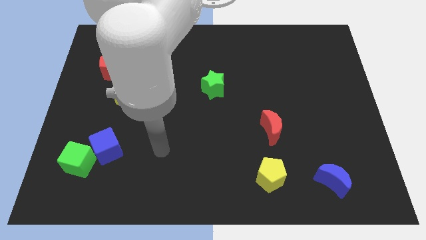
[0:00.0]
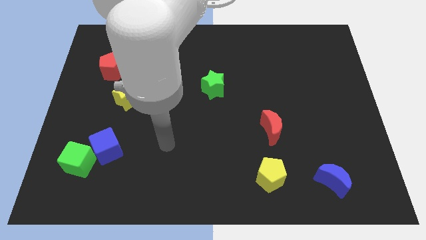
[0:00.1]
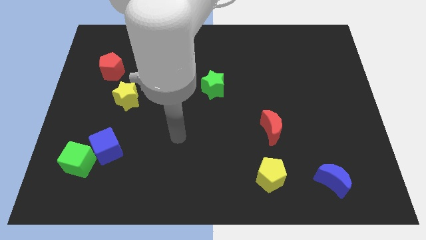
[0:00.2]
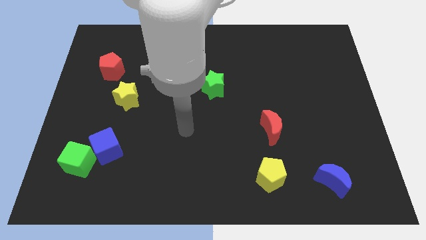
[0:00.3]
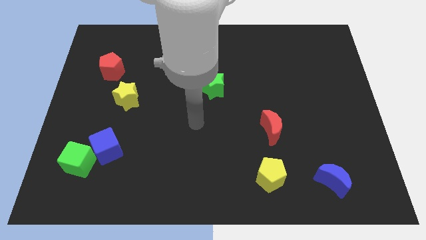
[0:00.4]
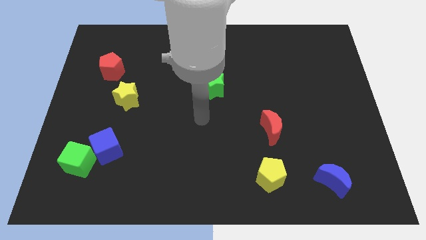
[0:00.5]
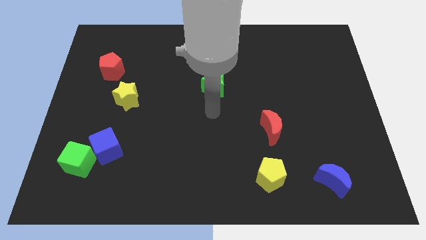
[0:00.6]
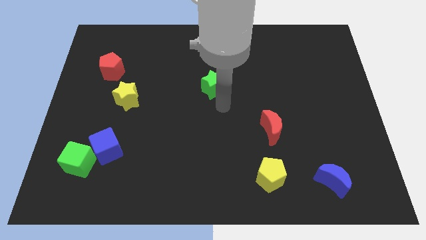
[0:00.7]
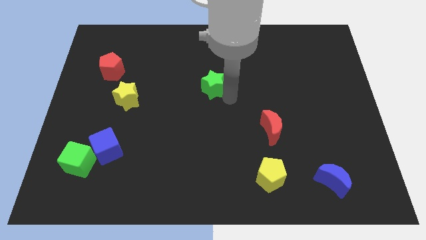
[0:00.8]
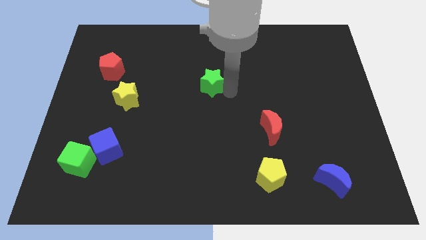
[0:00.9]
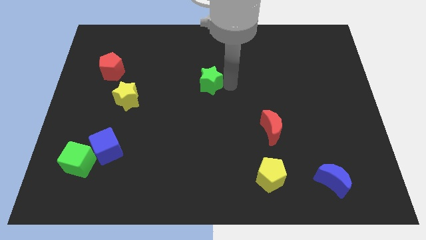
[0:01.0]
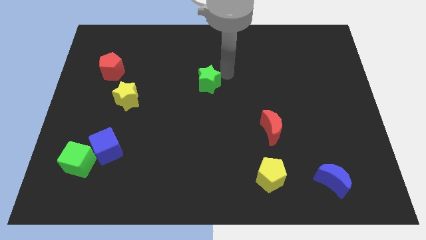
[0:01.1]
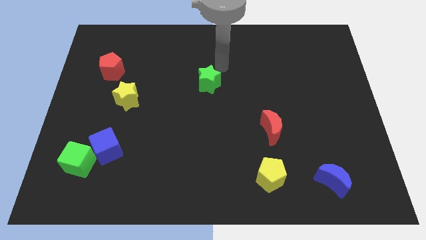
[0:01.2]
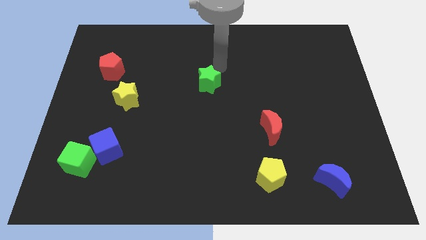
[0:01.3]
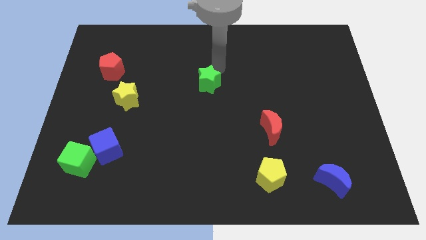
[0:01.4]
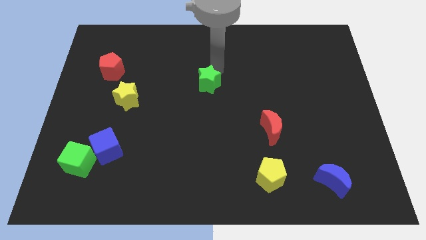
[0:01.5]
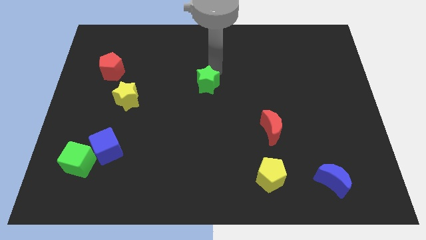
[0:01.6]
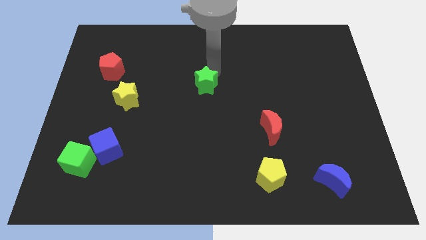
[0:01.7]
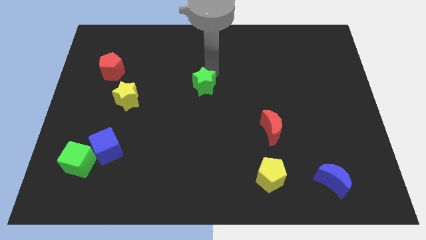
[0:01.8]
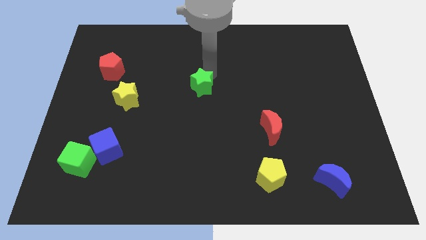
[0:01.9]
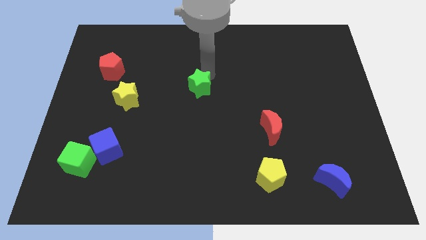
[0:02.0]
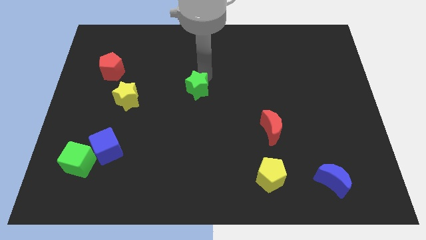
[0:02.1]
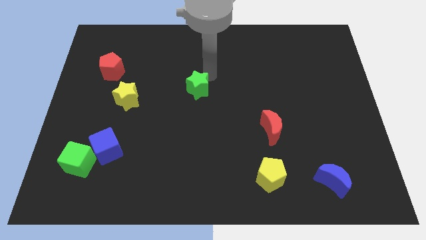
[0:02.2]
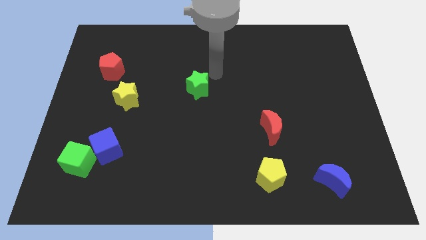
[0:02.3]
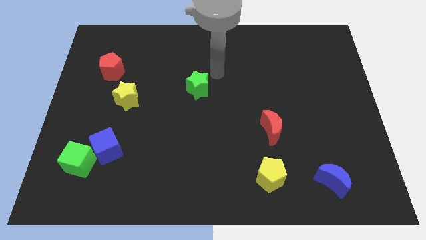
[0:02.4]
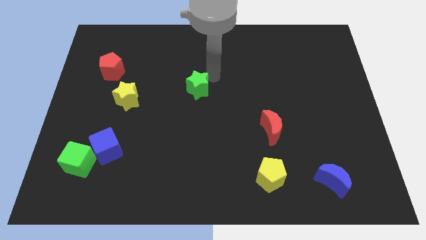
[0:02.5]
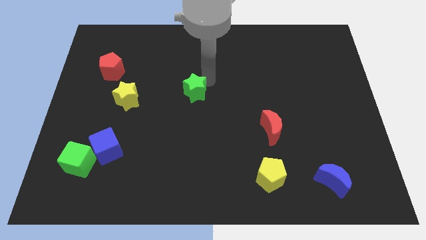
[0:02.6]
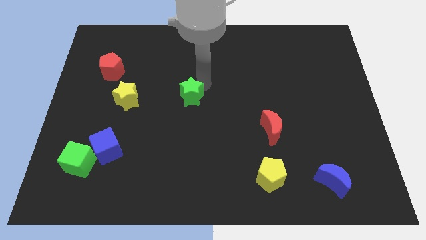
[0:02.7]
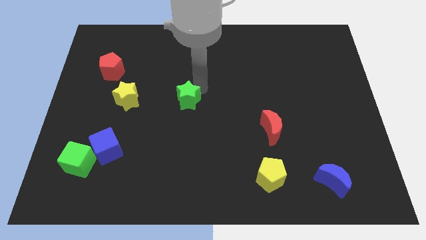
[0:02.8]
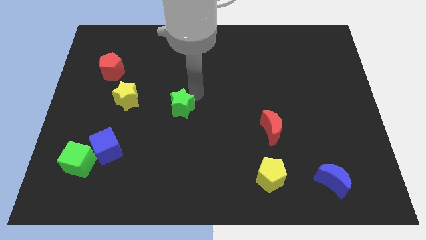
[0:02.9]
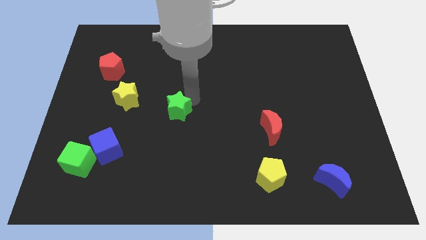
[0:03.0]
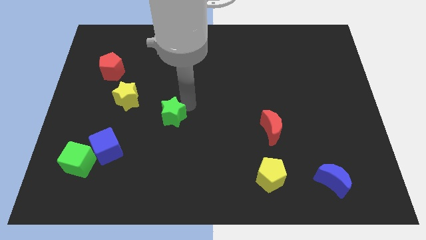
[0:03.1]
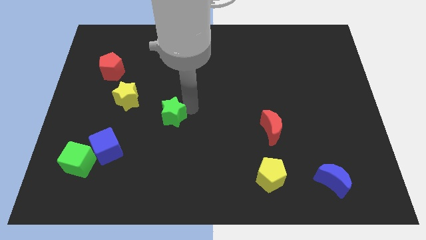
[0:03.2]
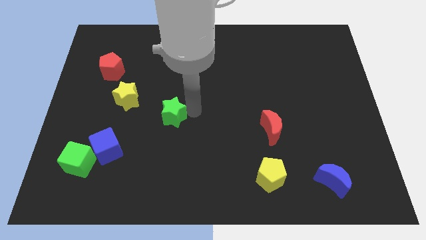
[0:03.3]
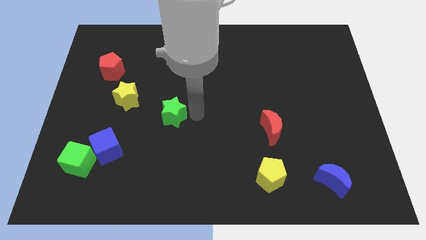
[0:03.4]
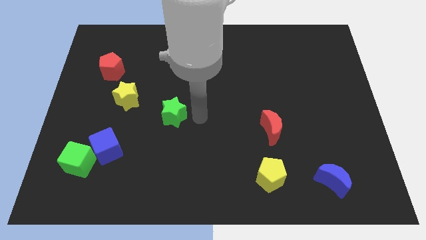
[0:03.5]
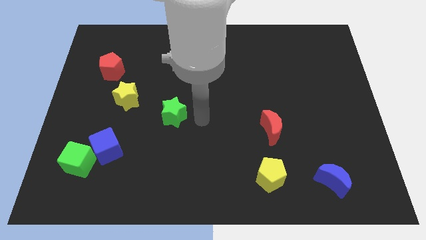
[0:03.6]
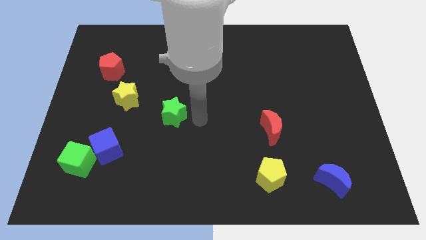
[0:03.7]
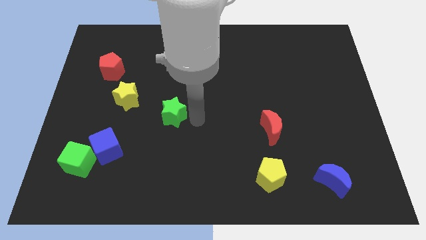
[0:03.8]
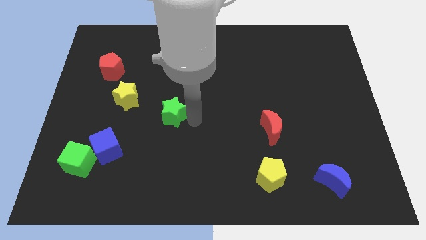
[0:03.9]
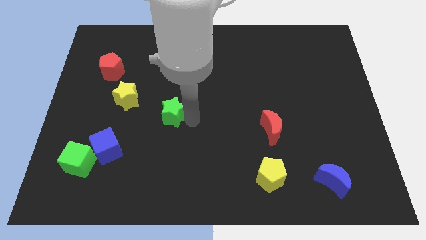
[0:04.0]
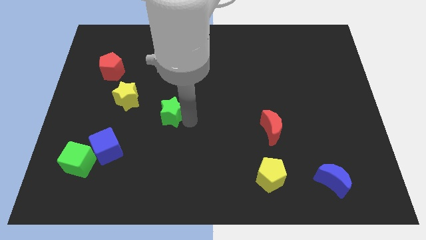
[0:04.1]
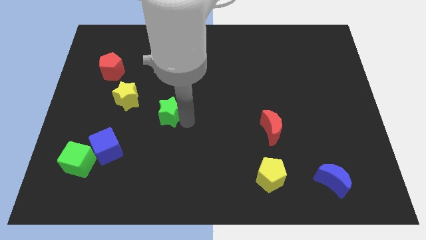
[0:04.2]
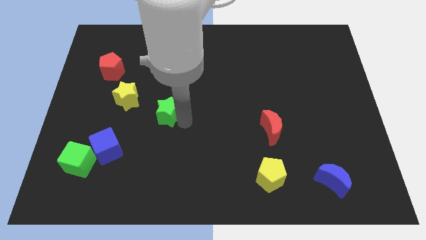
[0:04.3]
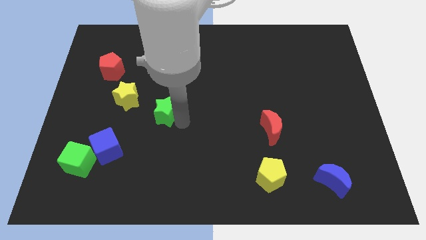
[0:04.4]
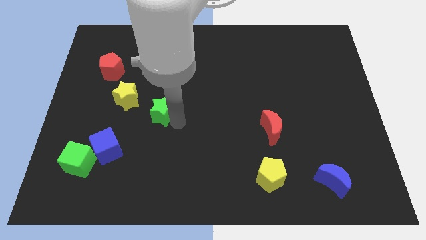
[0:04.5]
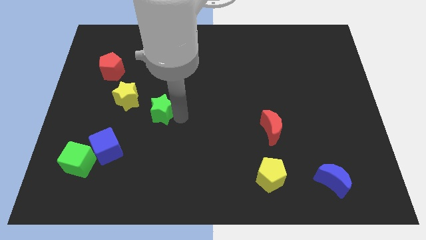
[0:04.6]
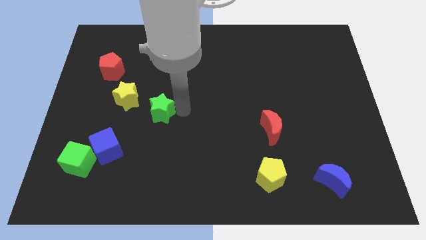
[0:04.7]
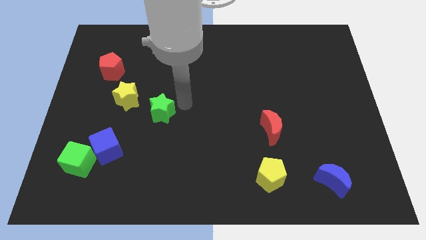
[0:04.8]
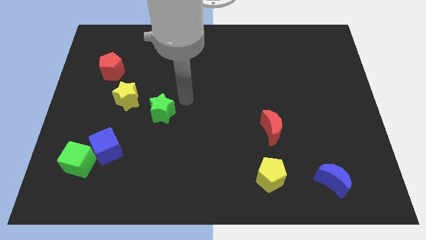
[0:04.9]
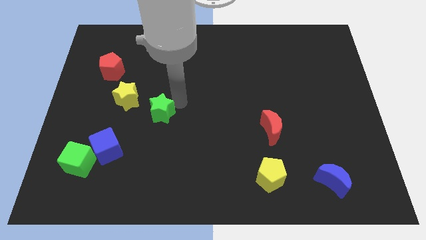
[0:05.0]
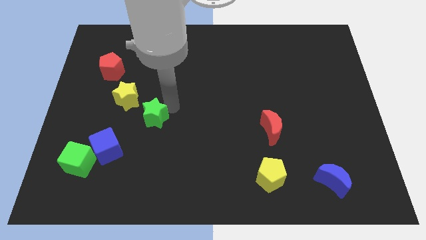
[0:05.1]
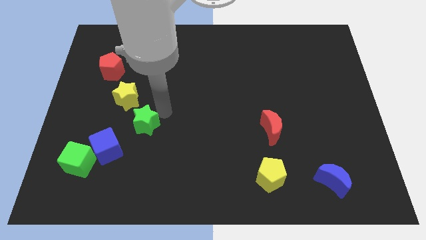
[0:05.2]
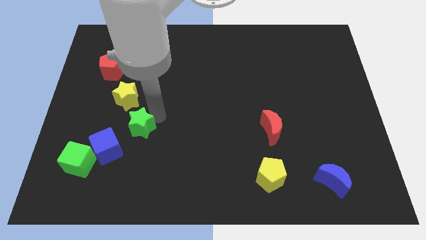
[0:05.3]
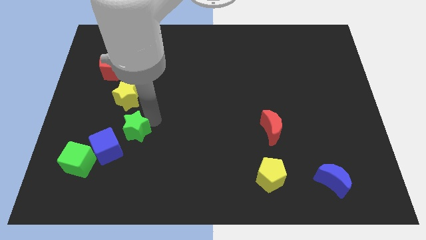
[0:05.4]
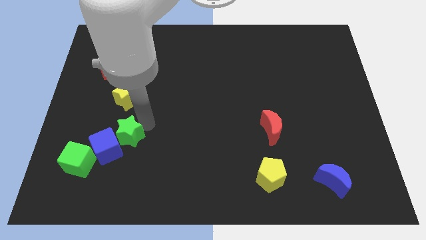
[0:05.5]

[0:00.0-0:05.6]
put the green star close to the blue cube

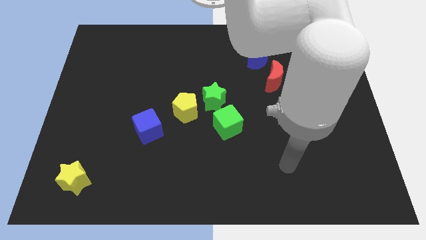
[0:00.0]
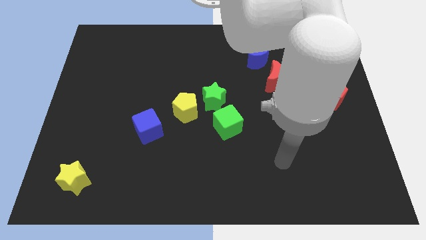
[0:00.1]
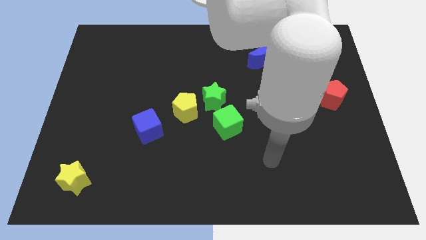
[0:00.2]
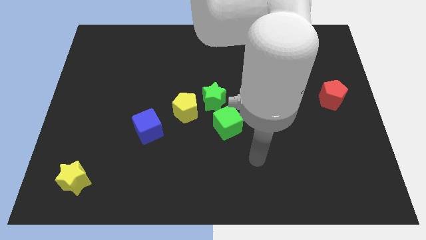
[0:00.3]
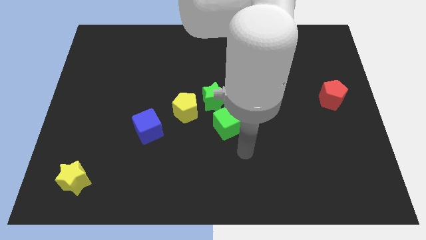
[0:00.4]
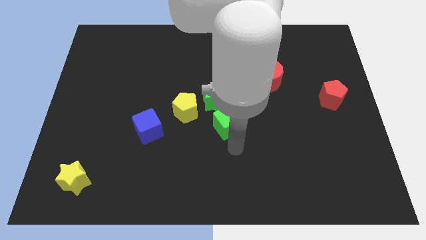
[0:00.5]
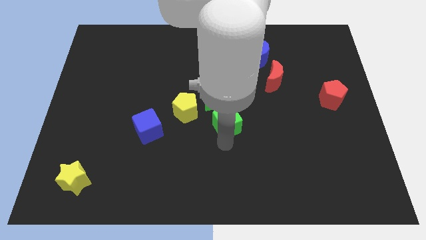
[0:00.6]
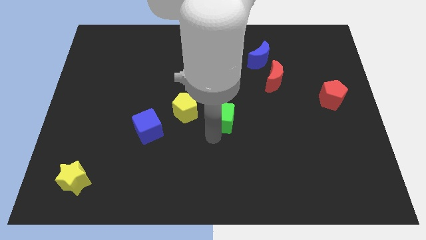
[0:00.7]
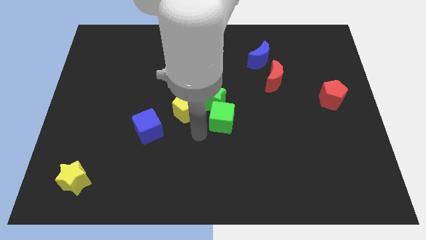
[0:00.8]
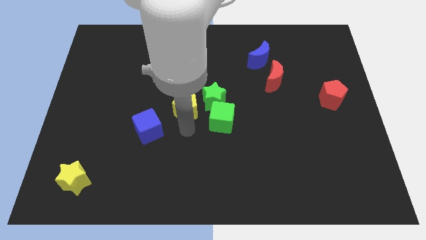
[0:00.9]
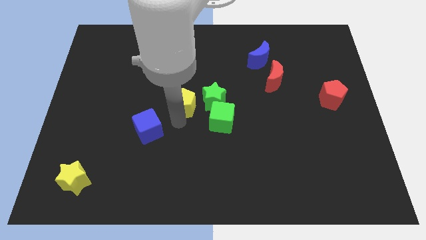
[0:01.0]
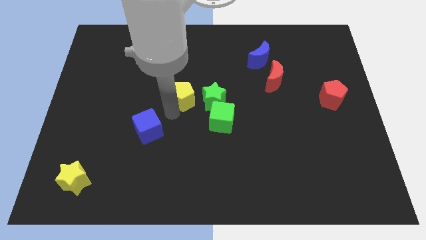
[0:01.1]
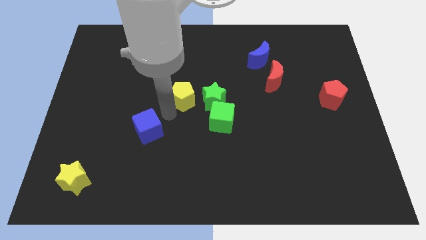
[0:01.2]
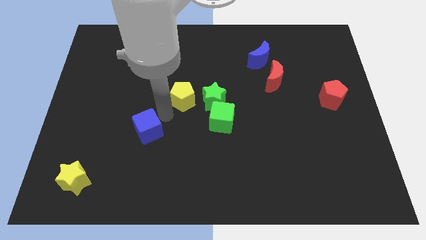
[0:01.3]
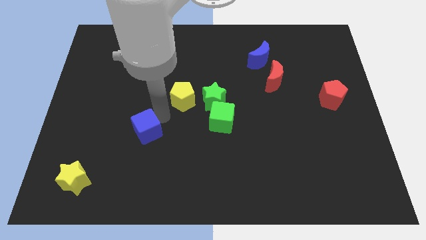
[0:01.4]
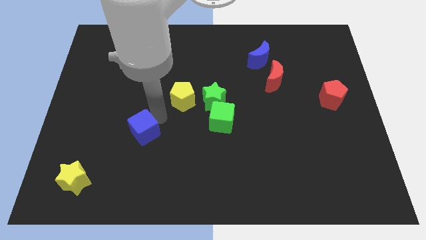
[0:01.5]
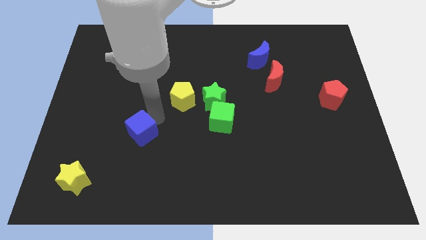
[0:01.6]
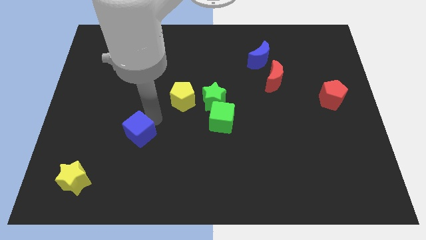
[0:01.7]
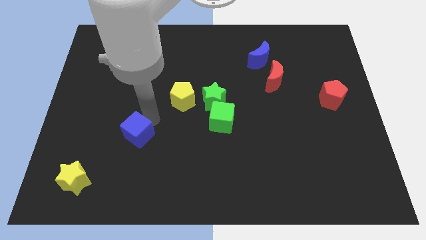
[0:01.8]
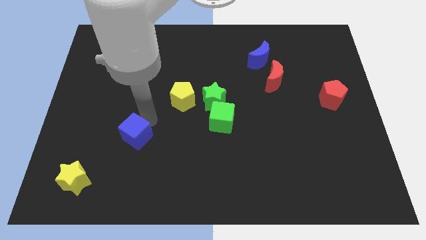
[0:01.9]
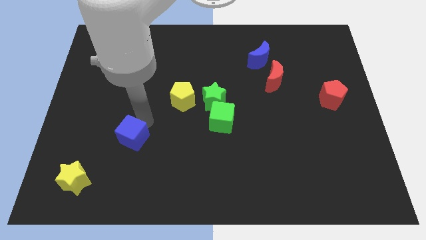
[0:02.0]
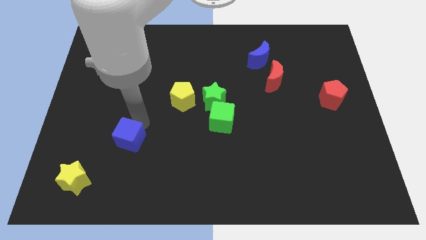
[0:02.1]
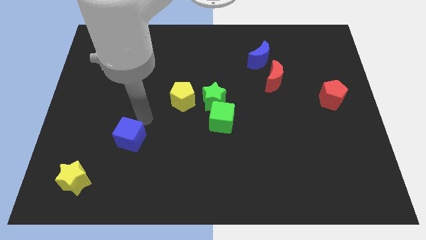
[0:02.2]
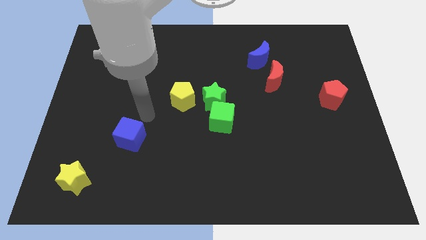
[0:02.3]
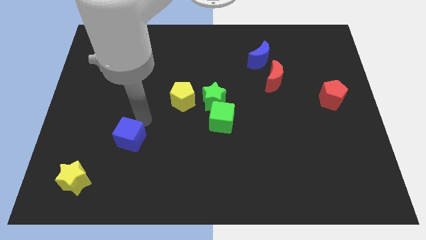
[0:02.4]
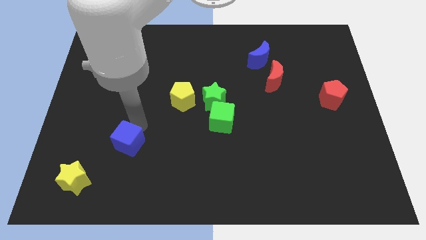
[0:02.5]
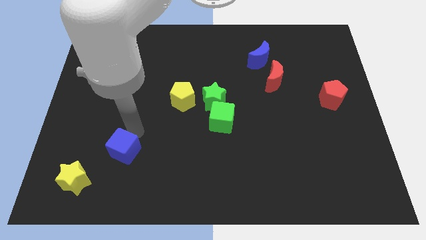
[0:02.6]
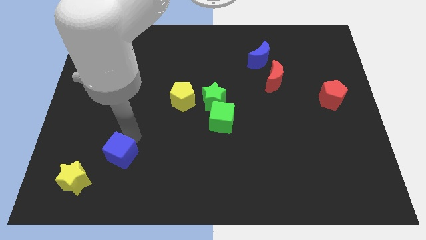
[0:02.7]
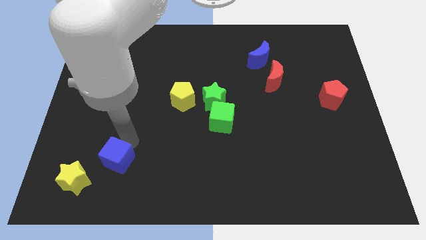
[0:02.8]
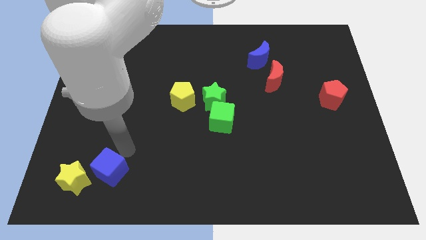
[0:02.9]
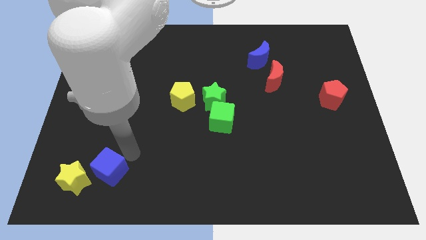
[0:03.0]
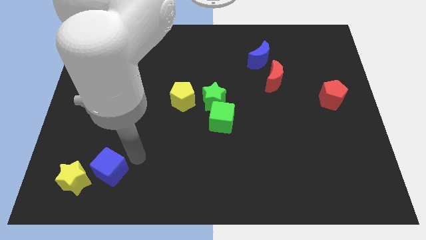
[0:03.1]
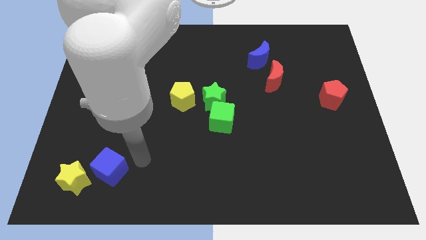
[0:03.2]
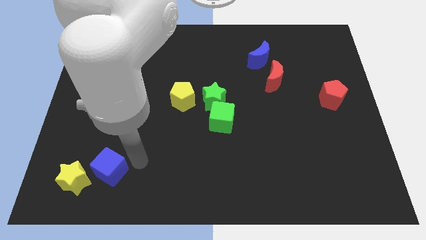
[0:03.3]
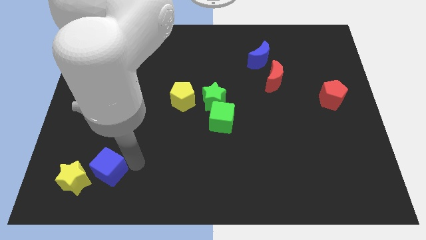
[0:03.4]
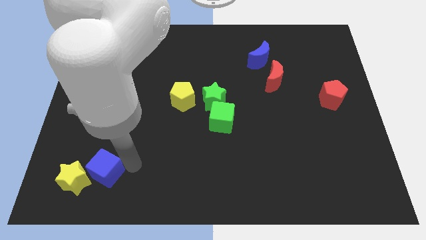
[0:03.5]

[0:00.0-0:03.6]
slide the blue cube towards the yellow star
